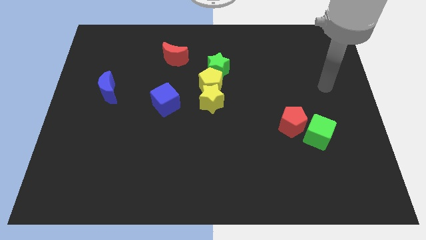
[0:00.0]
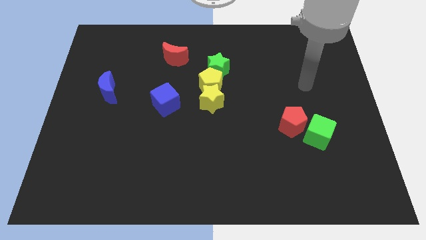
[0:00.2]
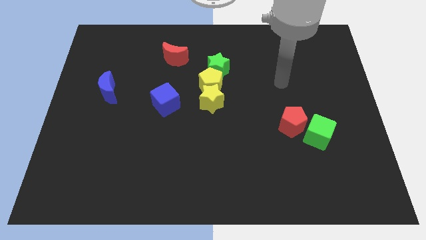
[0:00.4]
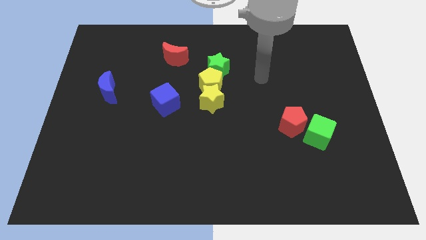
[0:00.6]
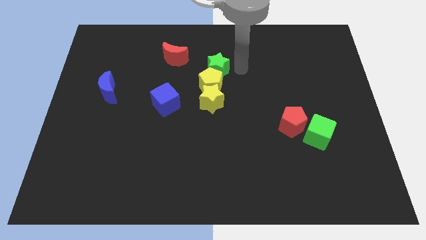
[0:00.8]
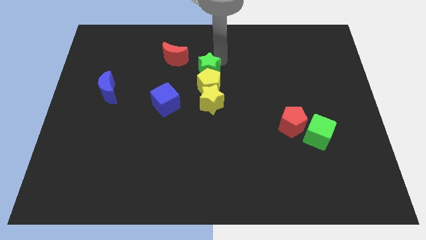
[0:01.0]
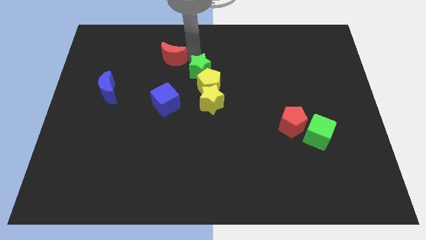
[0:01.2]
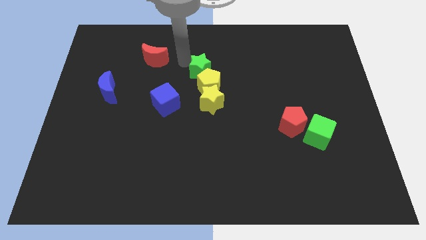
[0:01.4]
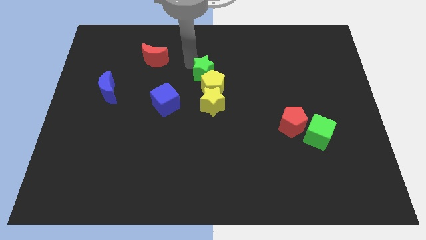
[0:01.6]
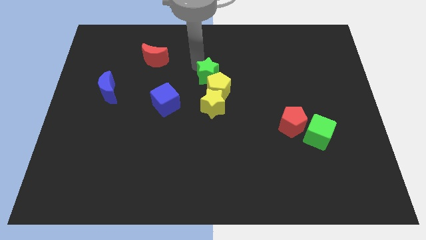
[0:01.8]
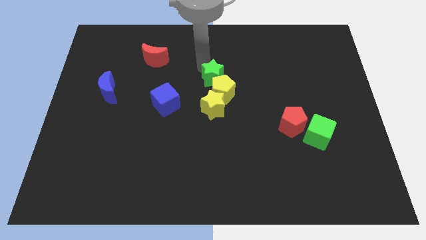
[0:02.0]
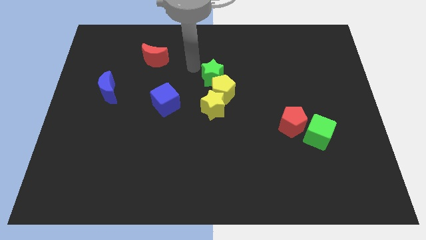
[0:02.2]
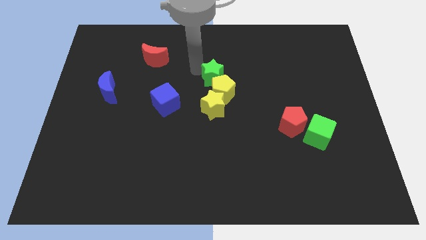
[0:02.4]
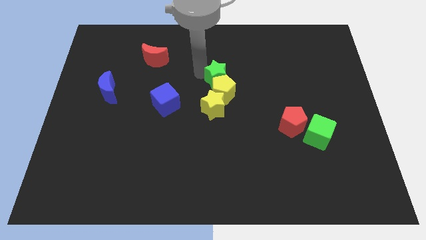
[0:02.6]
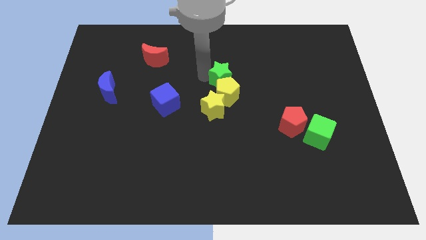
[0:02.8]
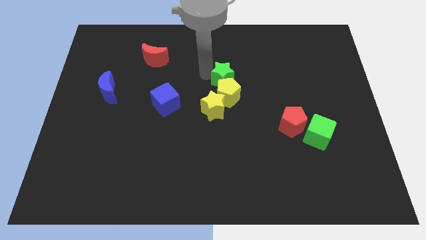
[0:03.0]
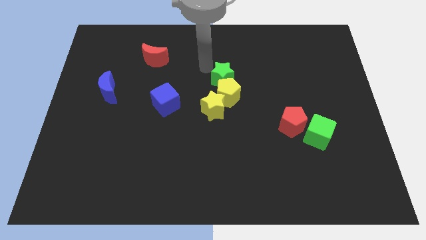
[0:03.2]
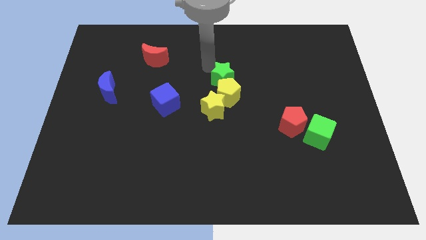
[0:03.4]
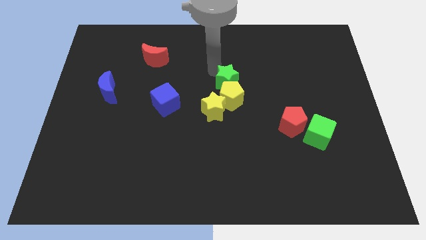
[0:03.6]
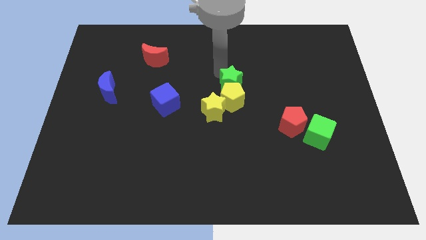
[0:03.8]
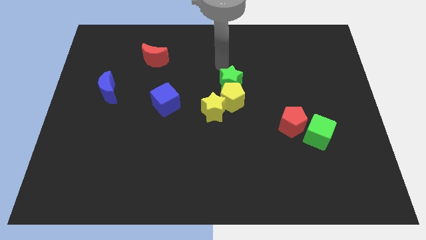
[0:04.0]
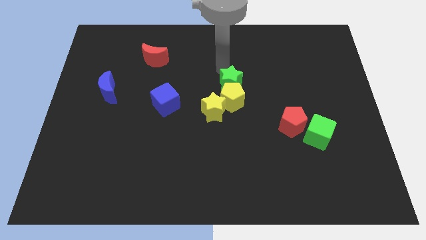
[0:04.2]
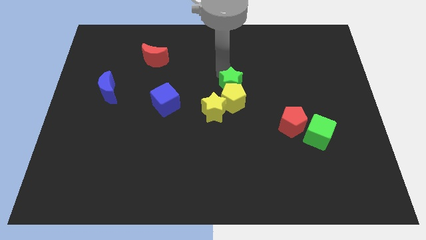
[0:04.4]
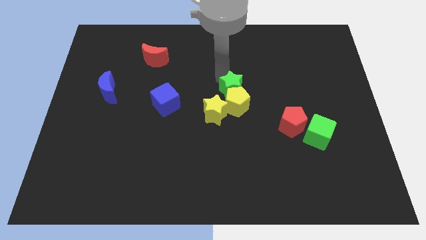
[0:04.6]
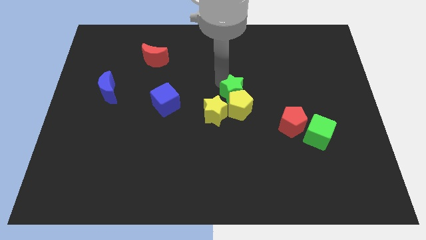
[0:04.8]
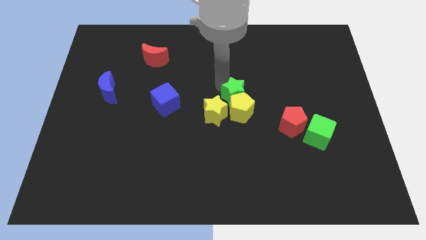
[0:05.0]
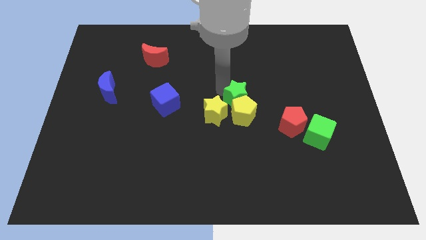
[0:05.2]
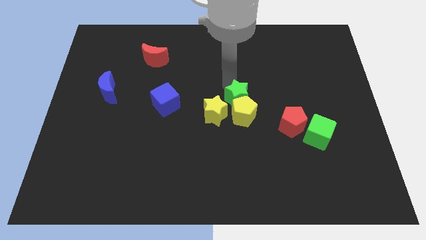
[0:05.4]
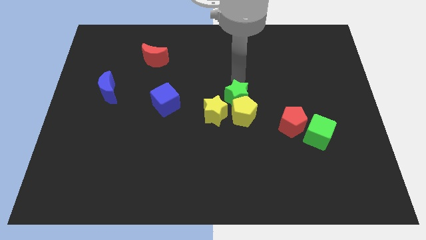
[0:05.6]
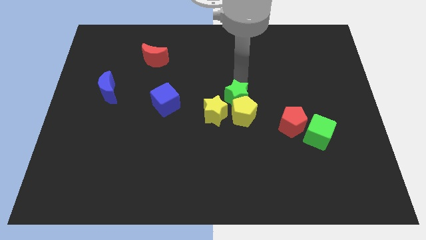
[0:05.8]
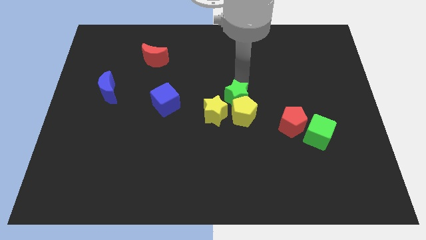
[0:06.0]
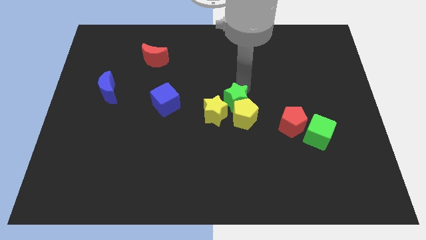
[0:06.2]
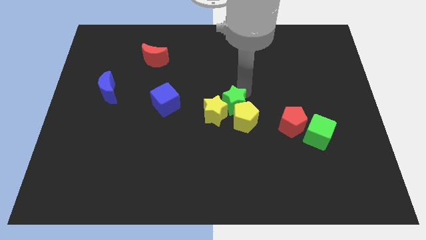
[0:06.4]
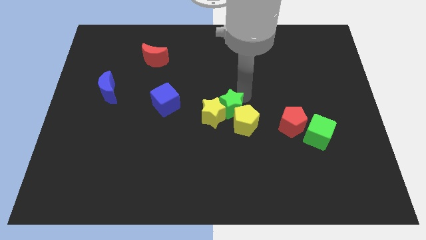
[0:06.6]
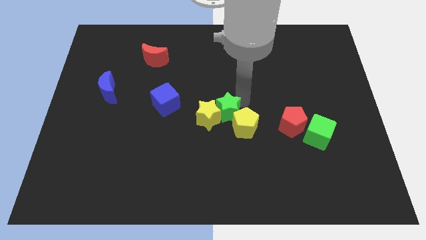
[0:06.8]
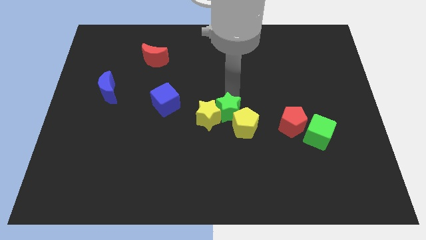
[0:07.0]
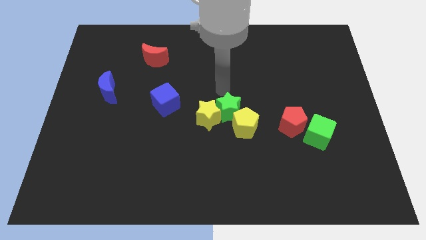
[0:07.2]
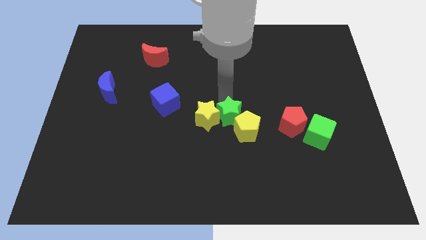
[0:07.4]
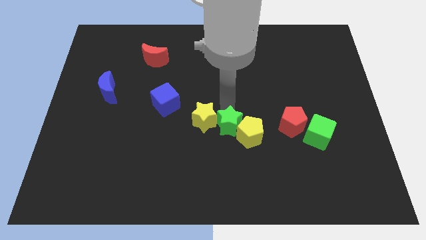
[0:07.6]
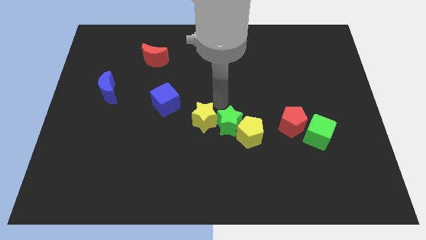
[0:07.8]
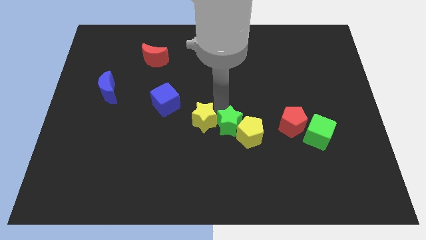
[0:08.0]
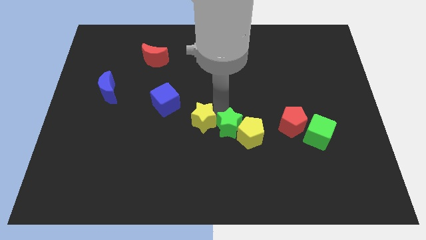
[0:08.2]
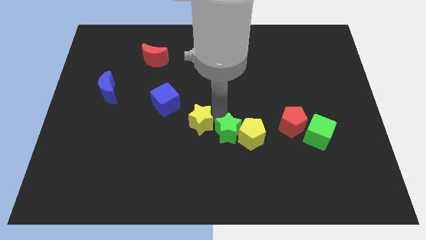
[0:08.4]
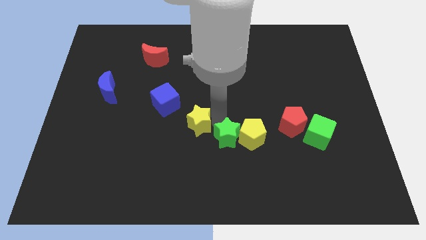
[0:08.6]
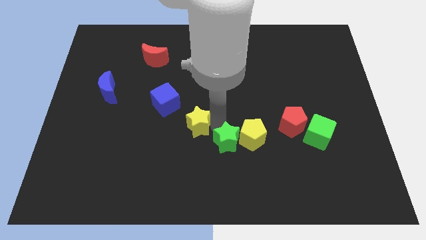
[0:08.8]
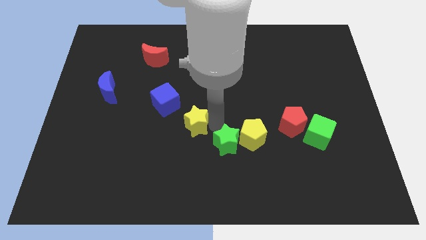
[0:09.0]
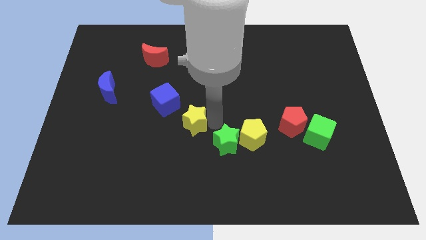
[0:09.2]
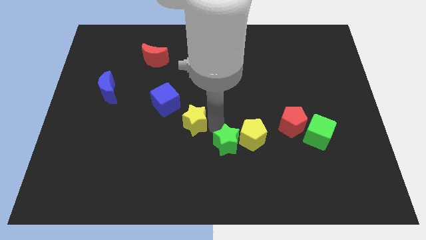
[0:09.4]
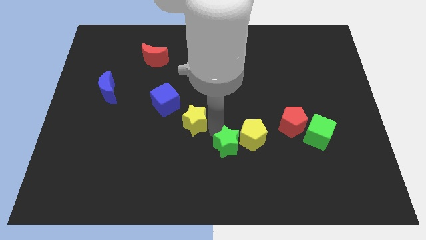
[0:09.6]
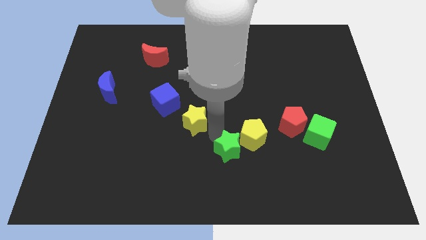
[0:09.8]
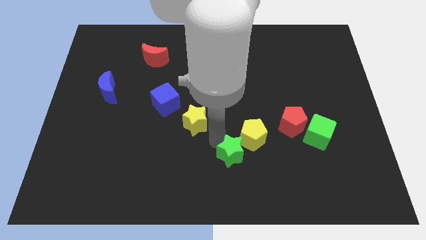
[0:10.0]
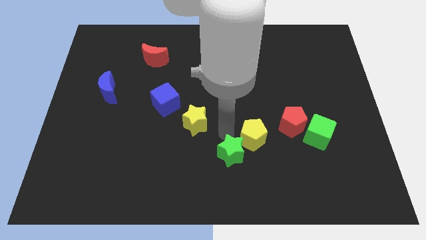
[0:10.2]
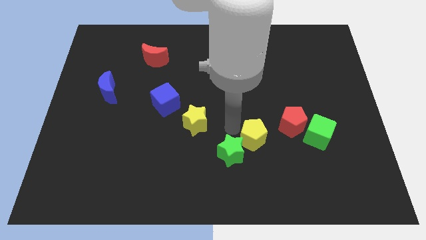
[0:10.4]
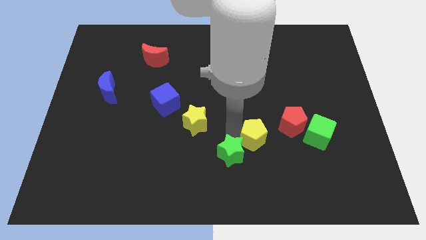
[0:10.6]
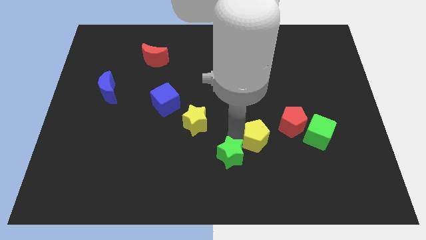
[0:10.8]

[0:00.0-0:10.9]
slide the green star to the bottom side

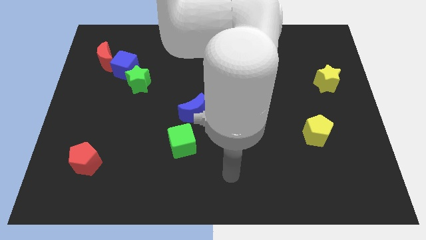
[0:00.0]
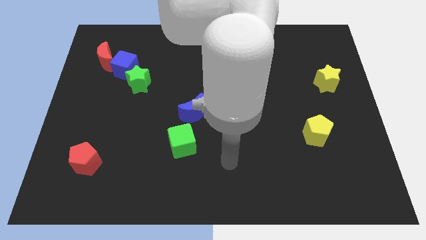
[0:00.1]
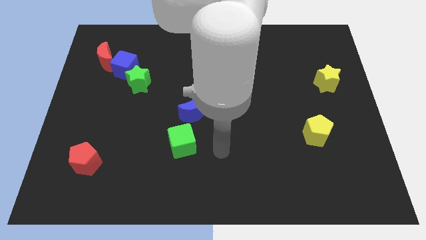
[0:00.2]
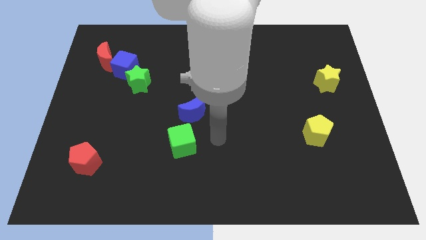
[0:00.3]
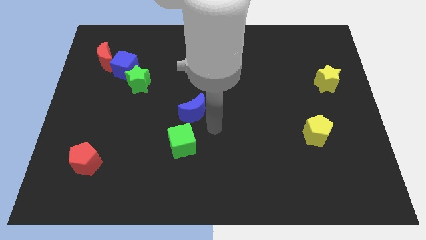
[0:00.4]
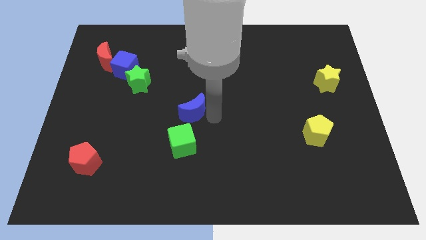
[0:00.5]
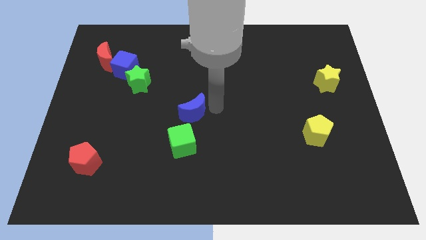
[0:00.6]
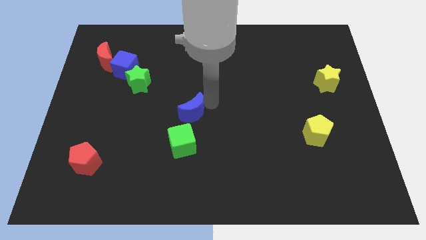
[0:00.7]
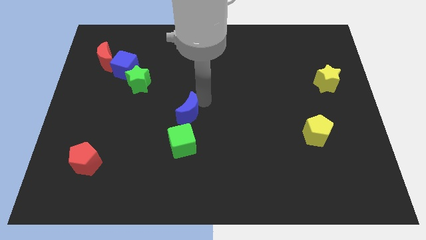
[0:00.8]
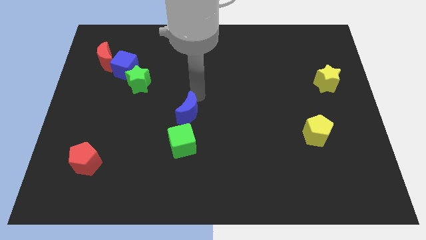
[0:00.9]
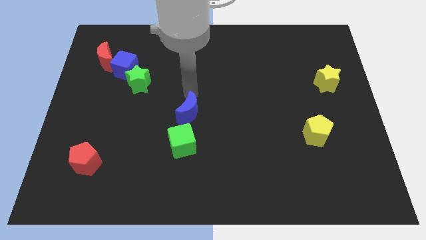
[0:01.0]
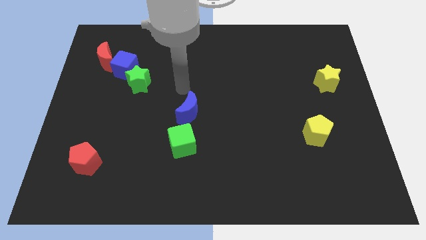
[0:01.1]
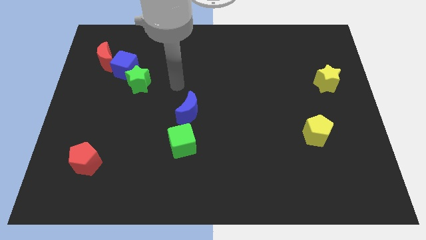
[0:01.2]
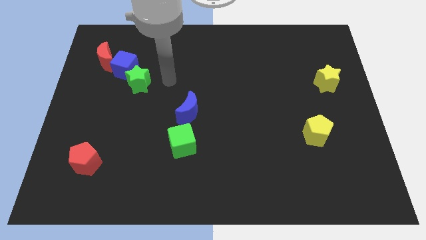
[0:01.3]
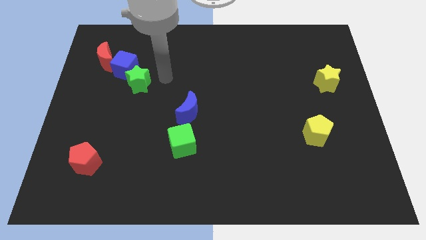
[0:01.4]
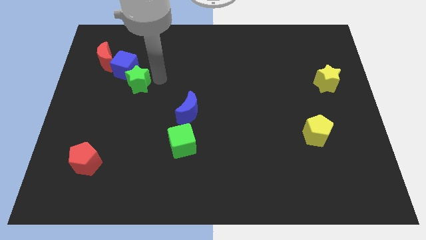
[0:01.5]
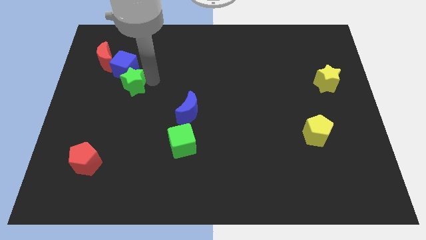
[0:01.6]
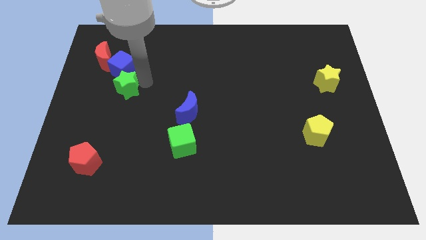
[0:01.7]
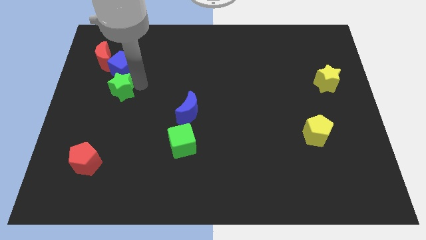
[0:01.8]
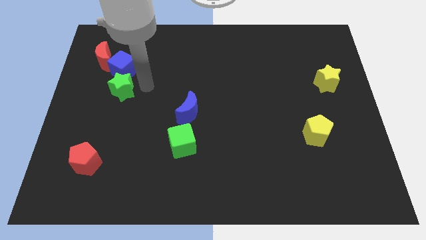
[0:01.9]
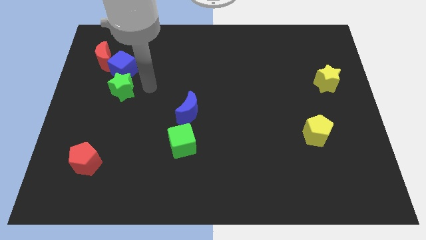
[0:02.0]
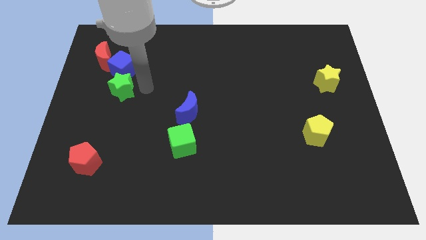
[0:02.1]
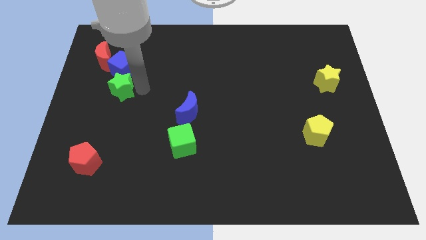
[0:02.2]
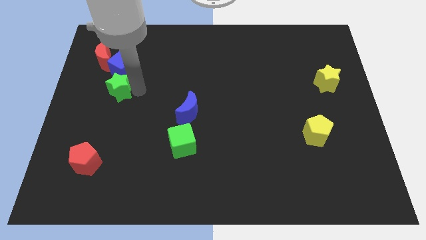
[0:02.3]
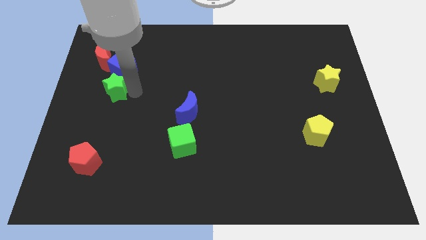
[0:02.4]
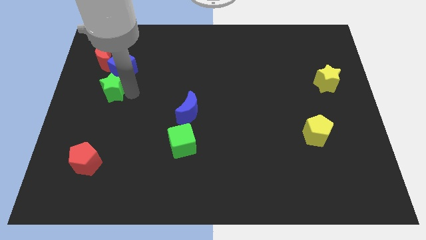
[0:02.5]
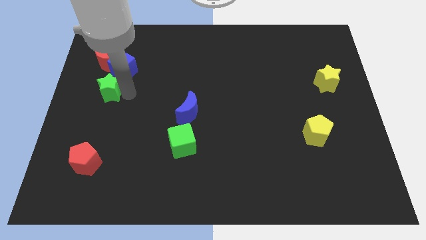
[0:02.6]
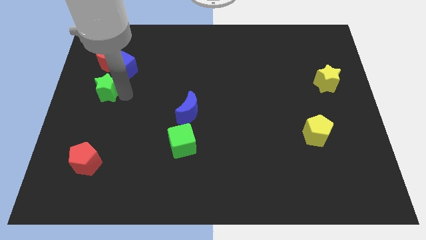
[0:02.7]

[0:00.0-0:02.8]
put the green star to the center left
